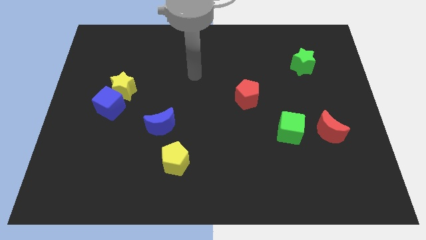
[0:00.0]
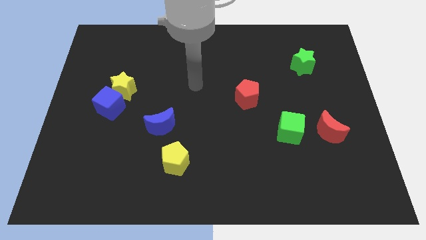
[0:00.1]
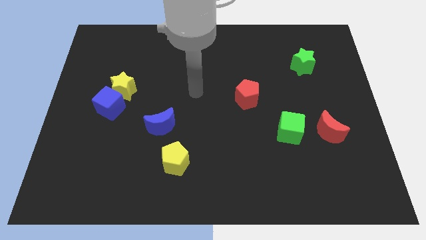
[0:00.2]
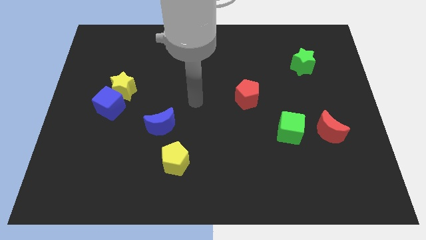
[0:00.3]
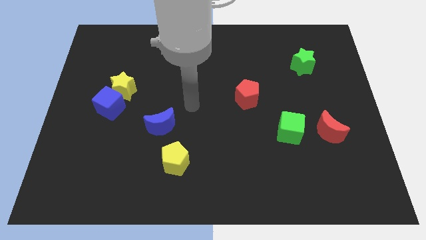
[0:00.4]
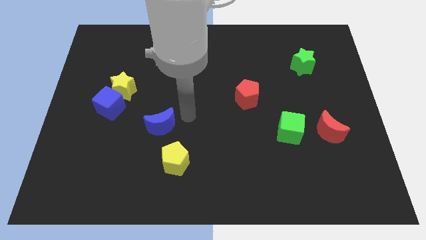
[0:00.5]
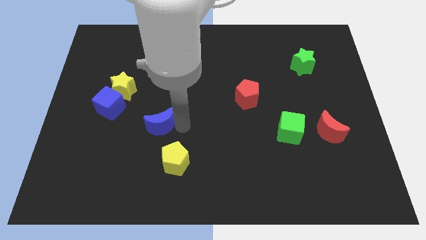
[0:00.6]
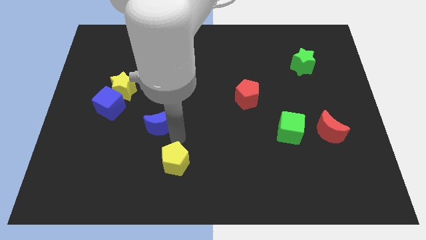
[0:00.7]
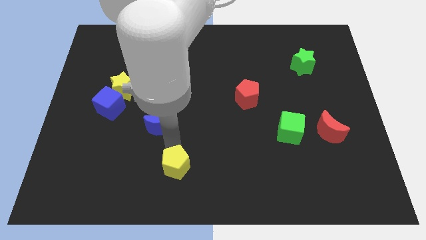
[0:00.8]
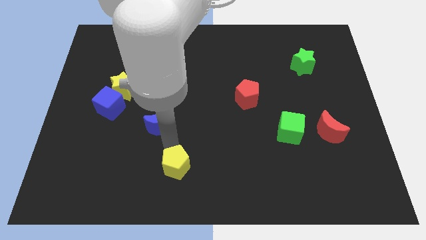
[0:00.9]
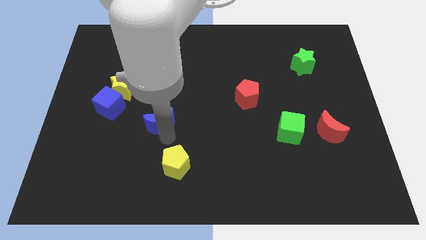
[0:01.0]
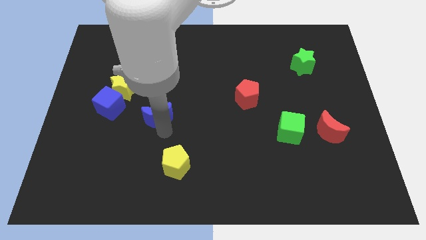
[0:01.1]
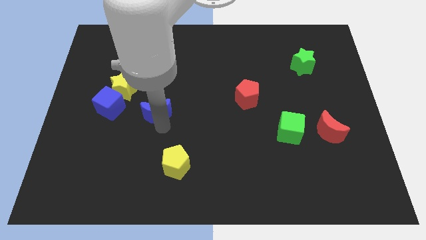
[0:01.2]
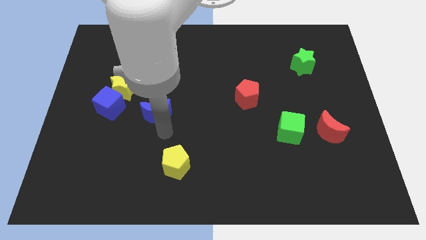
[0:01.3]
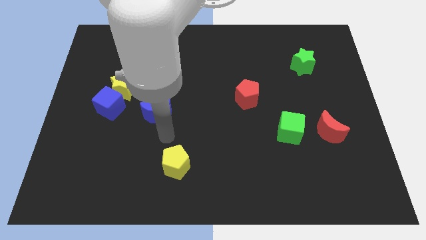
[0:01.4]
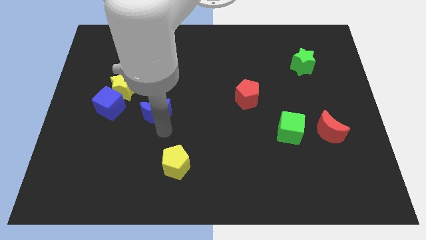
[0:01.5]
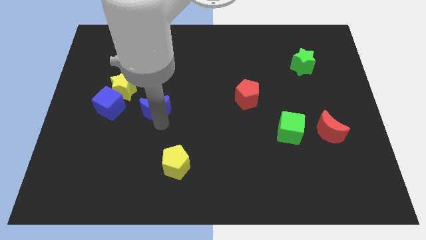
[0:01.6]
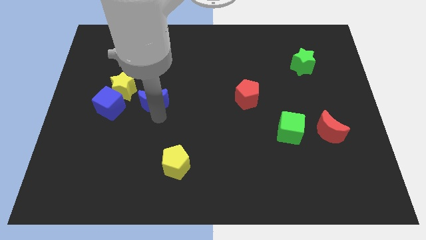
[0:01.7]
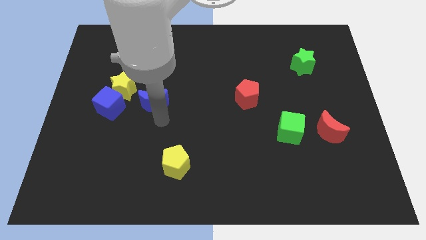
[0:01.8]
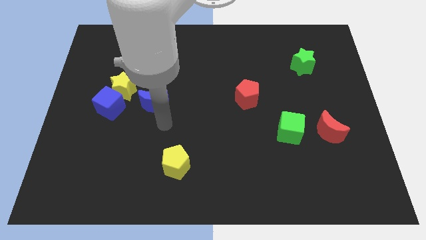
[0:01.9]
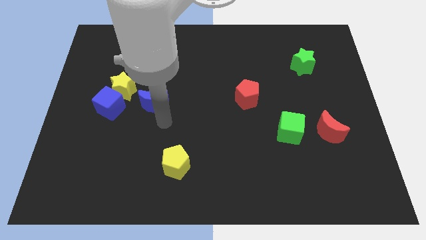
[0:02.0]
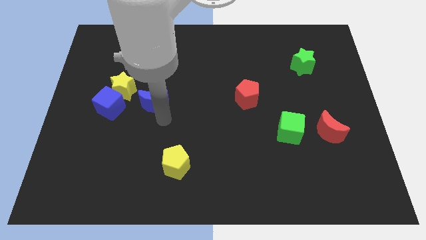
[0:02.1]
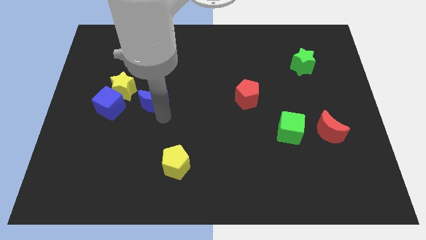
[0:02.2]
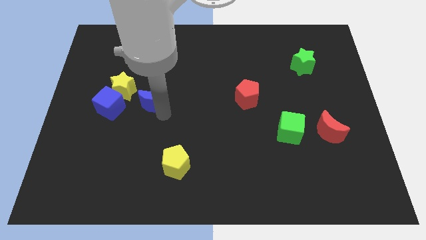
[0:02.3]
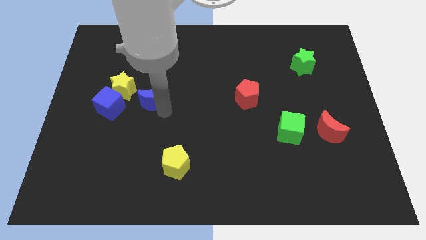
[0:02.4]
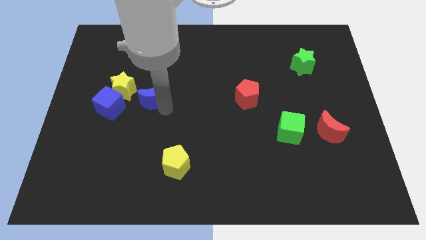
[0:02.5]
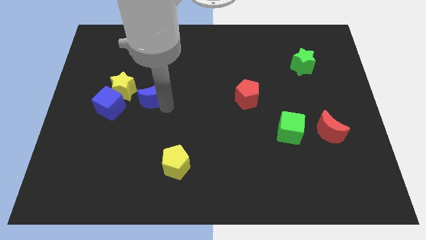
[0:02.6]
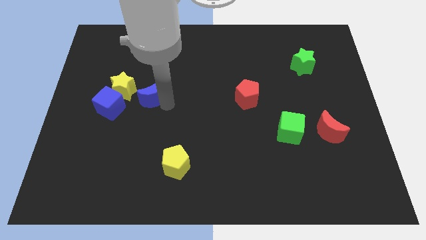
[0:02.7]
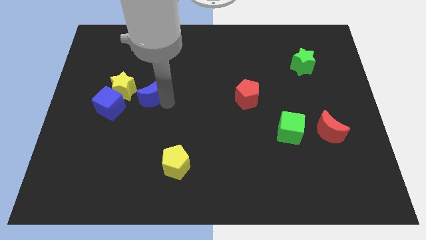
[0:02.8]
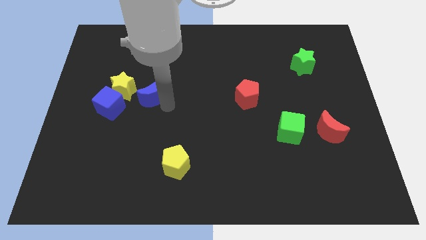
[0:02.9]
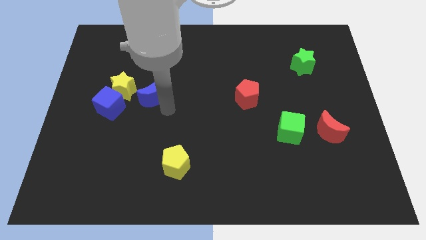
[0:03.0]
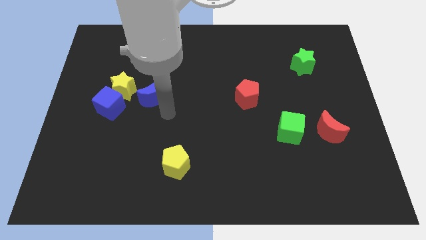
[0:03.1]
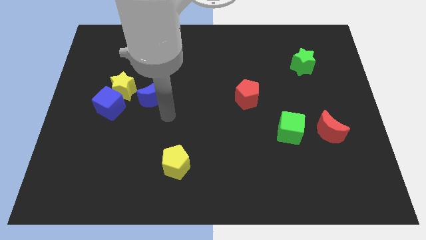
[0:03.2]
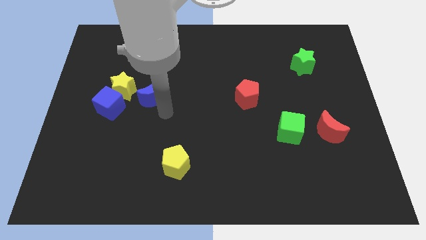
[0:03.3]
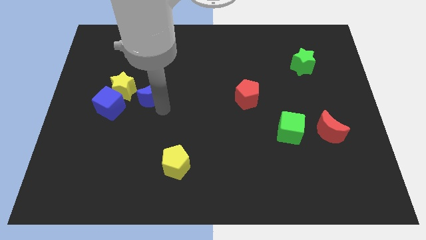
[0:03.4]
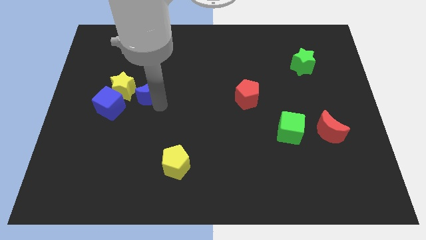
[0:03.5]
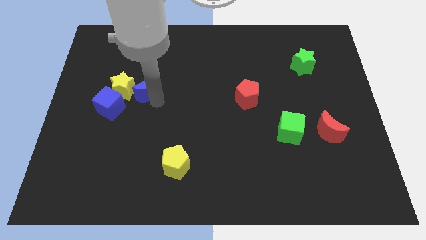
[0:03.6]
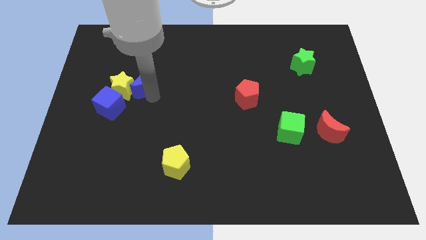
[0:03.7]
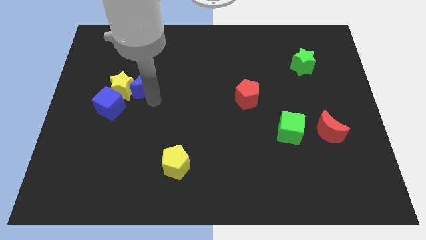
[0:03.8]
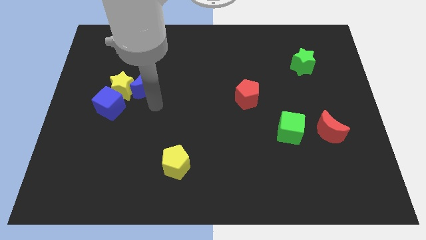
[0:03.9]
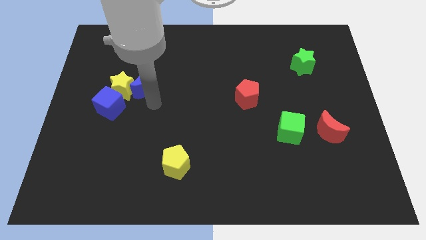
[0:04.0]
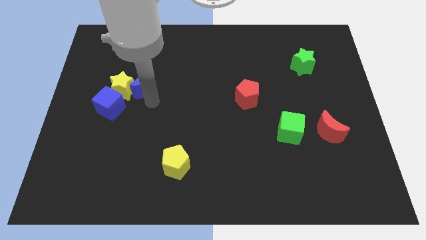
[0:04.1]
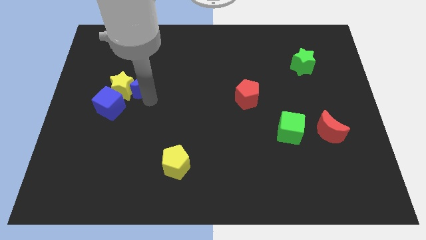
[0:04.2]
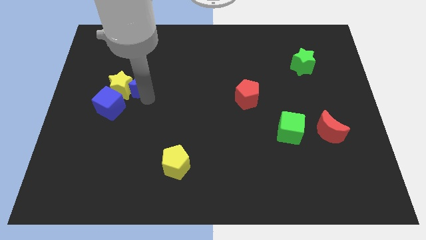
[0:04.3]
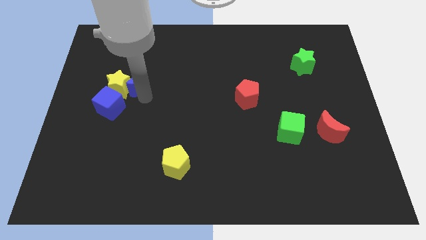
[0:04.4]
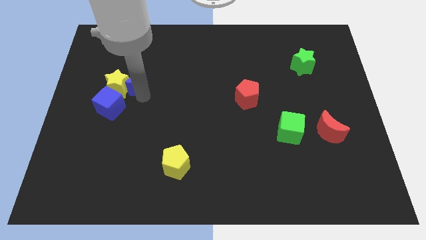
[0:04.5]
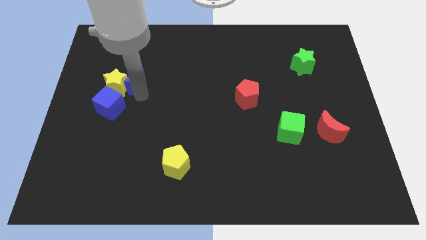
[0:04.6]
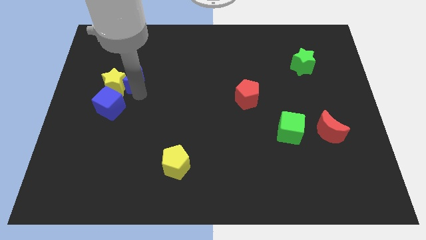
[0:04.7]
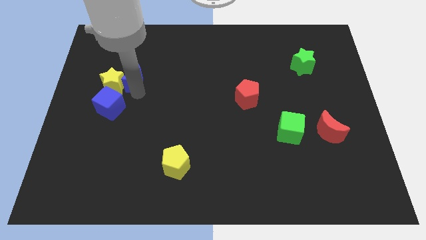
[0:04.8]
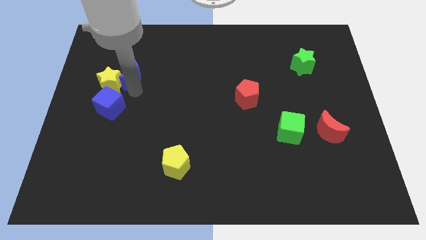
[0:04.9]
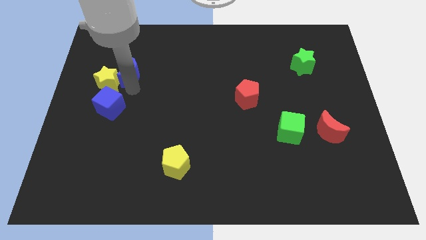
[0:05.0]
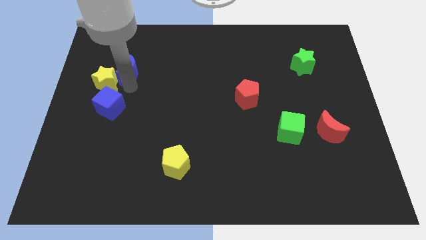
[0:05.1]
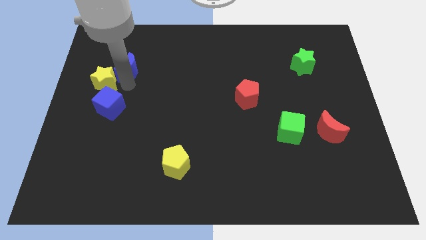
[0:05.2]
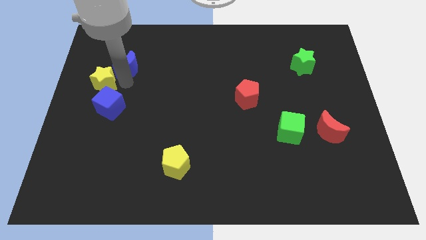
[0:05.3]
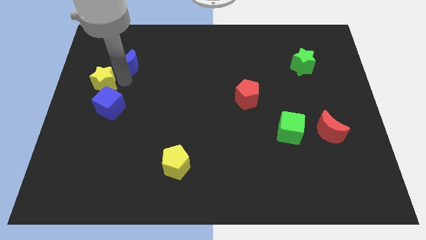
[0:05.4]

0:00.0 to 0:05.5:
move the blue moon to the top side of the yellow star

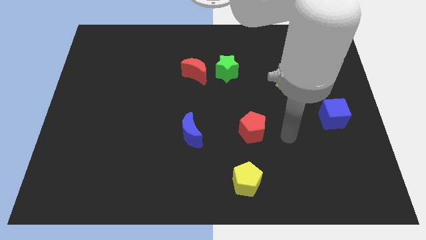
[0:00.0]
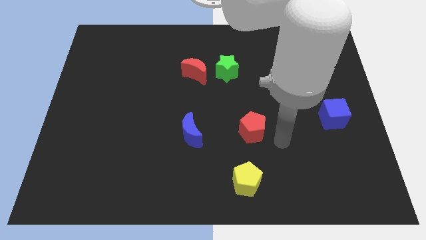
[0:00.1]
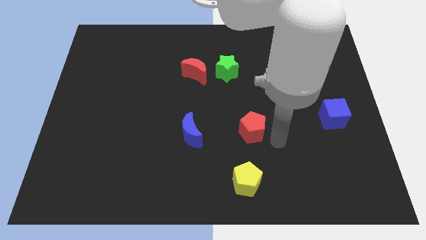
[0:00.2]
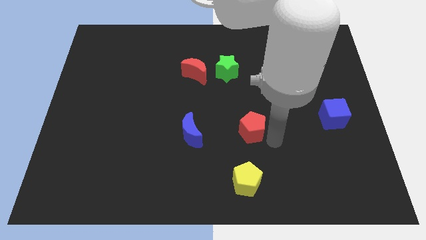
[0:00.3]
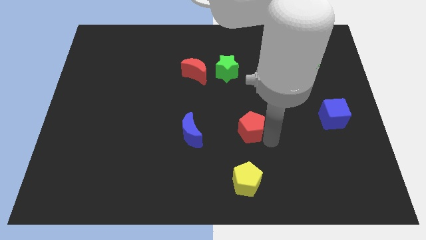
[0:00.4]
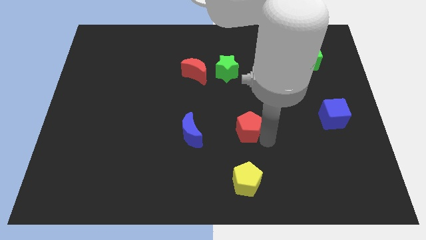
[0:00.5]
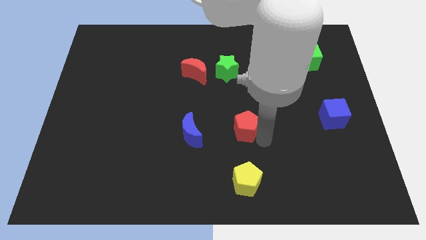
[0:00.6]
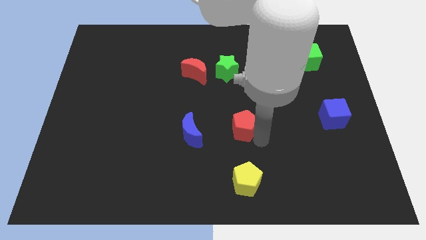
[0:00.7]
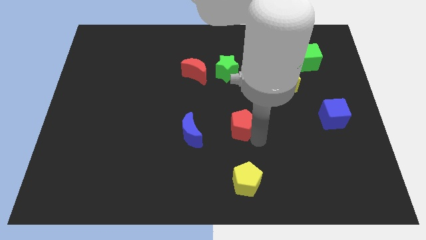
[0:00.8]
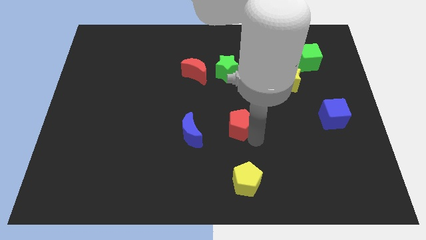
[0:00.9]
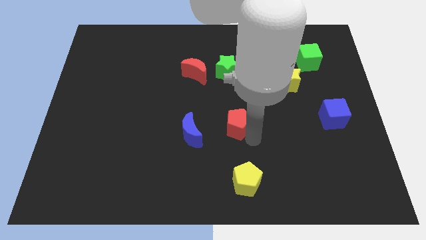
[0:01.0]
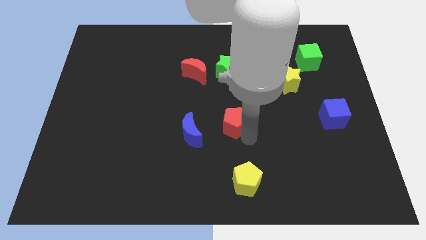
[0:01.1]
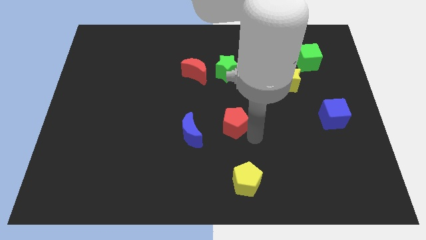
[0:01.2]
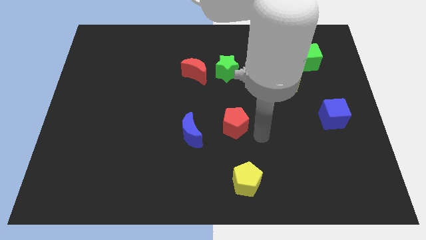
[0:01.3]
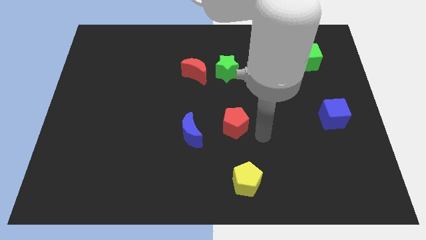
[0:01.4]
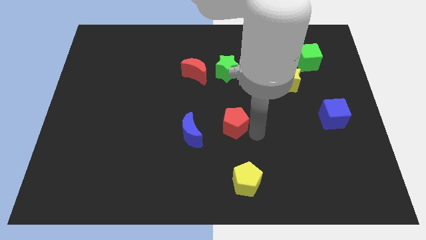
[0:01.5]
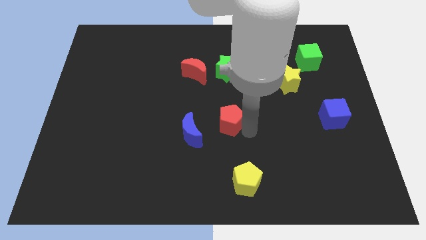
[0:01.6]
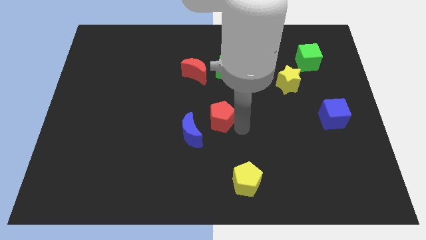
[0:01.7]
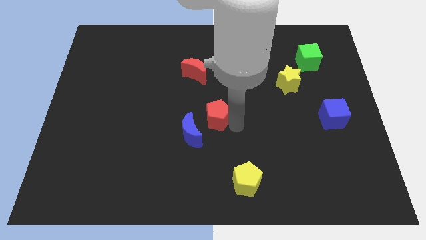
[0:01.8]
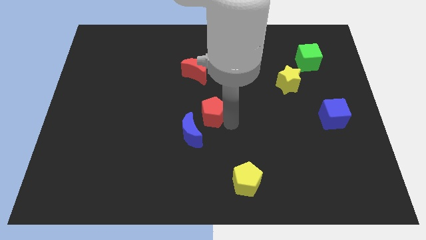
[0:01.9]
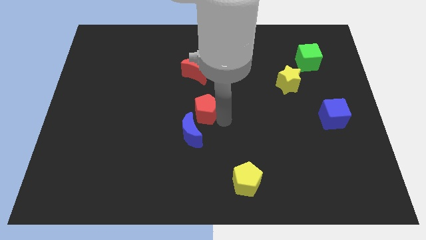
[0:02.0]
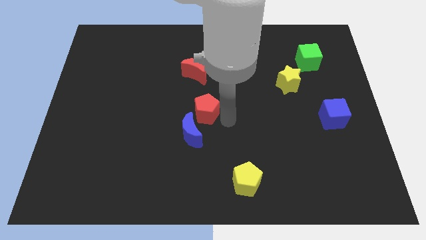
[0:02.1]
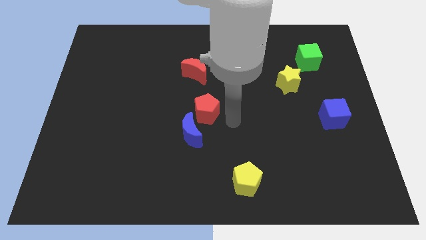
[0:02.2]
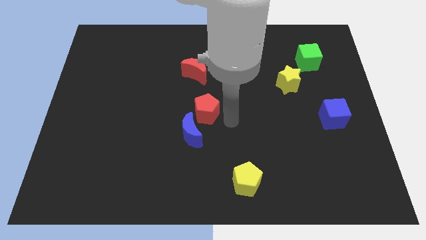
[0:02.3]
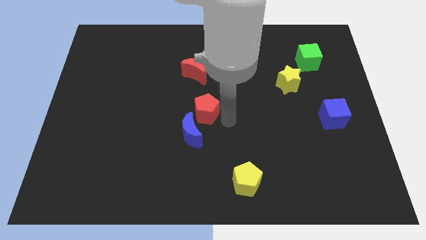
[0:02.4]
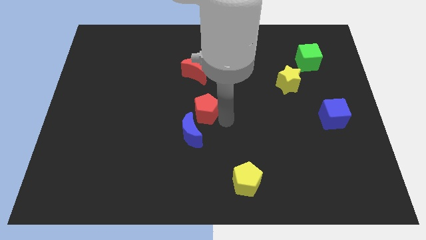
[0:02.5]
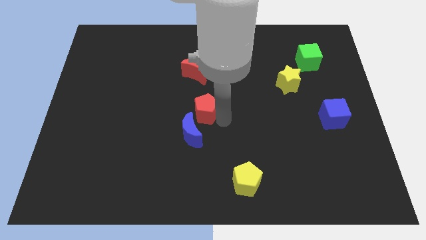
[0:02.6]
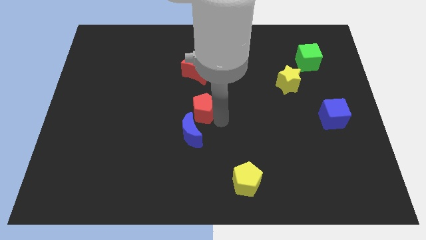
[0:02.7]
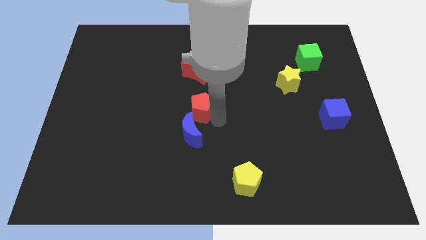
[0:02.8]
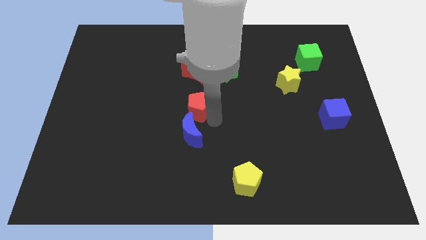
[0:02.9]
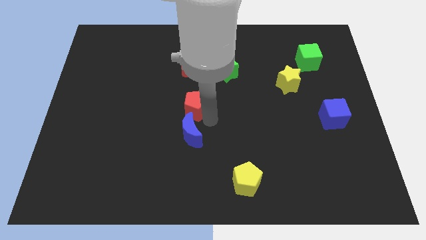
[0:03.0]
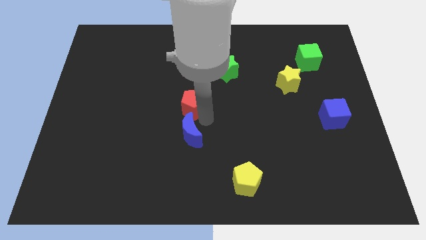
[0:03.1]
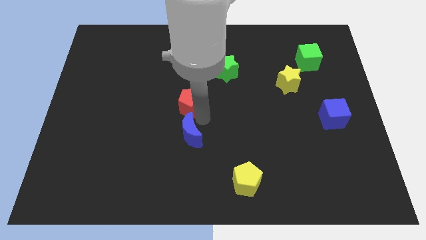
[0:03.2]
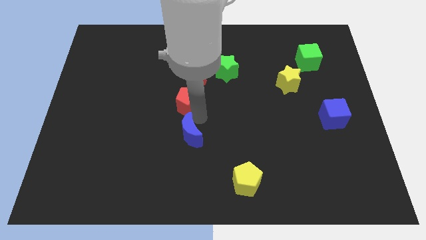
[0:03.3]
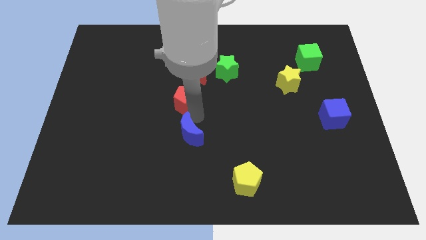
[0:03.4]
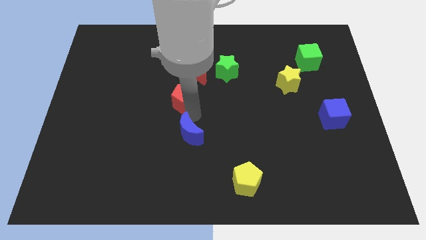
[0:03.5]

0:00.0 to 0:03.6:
move the red pentagon diagonally down and to the left of the red moon
